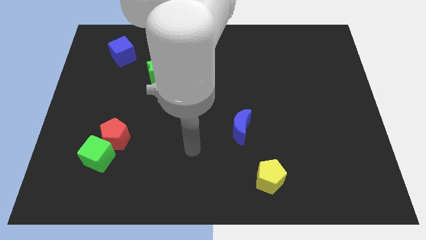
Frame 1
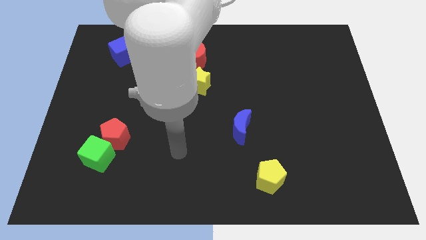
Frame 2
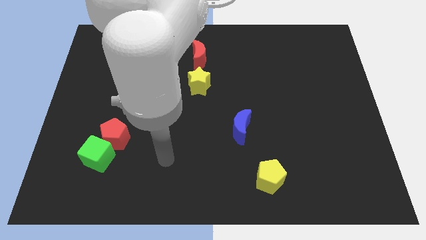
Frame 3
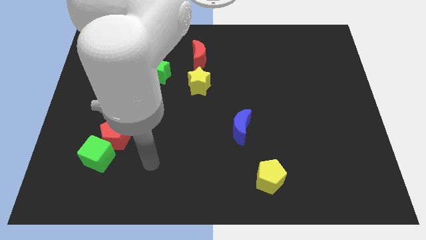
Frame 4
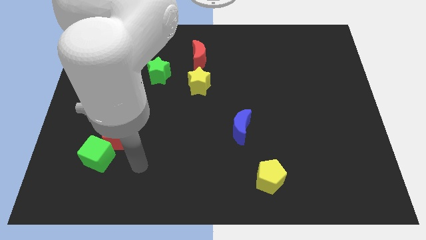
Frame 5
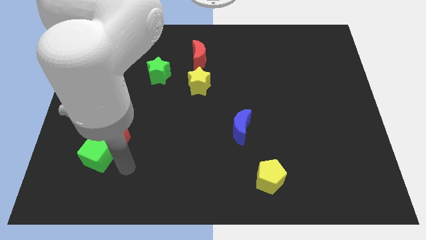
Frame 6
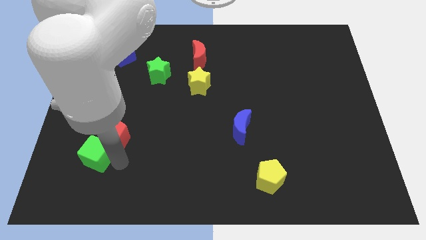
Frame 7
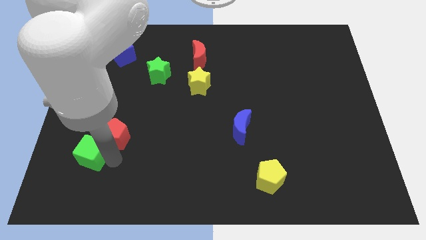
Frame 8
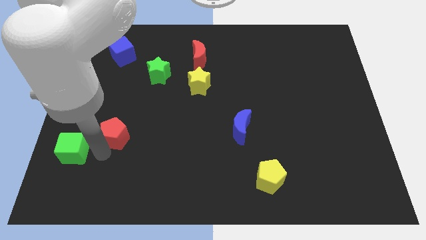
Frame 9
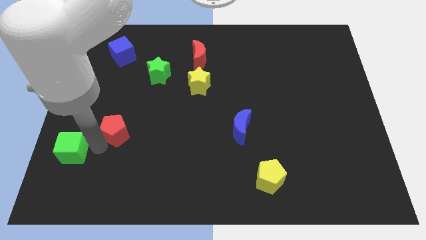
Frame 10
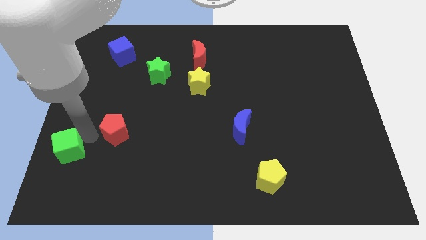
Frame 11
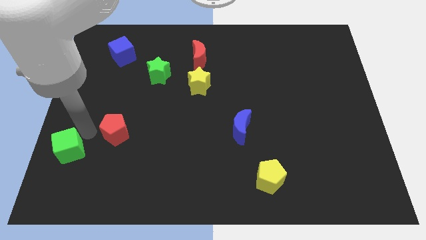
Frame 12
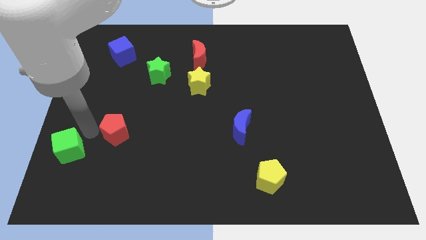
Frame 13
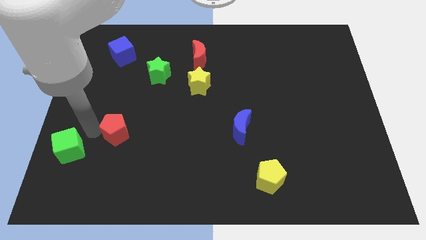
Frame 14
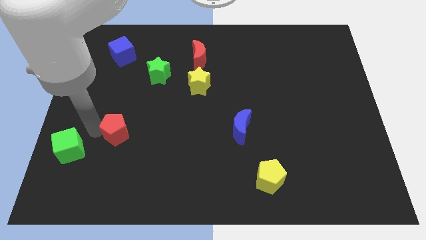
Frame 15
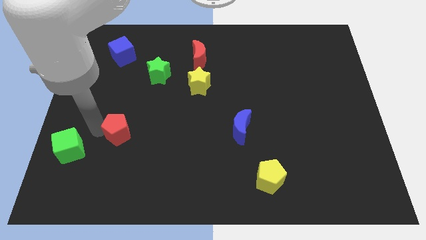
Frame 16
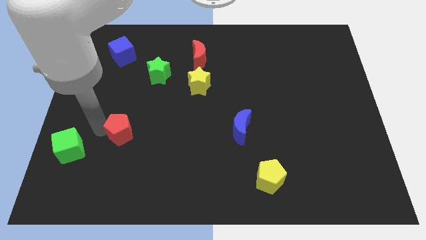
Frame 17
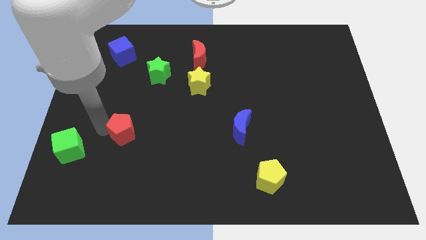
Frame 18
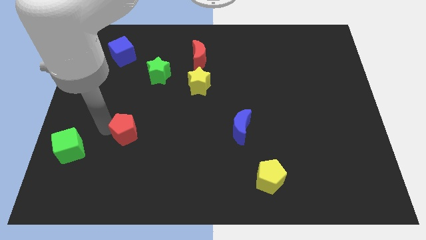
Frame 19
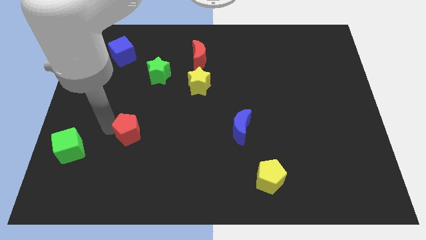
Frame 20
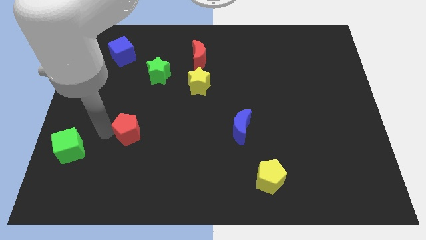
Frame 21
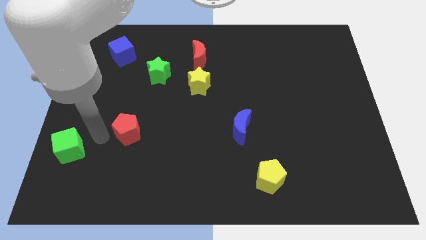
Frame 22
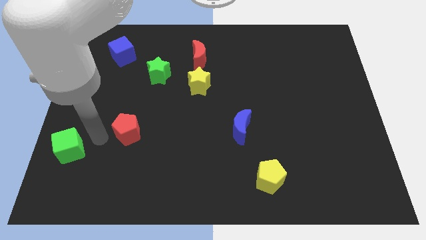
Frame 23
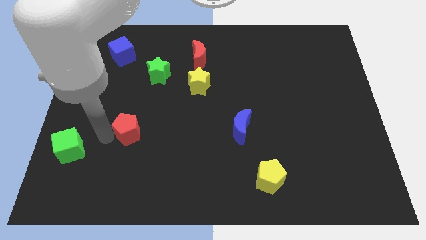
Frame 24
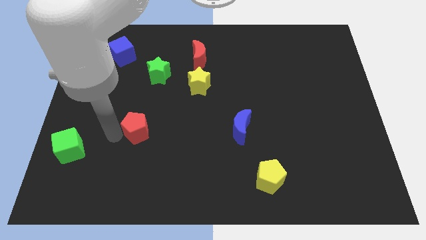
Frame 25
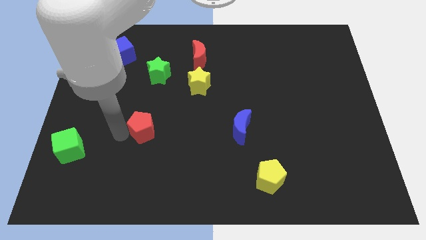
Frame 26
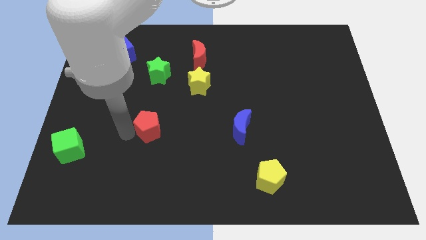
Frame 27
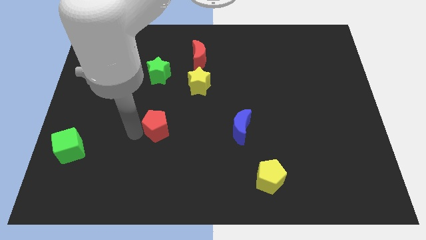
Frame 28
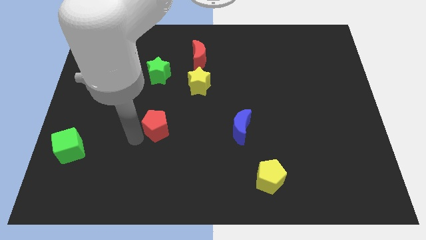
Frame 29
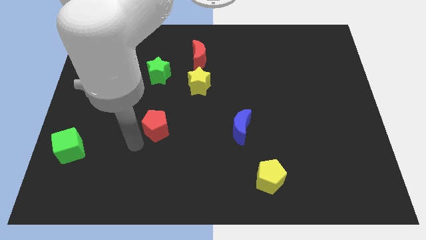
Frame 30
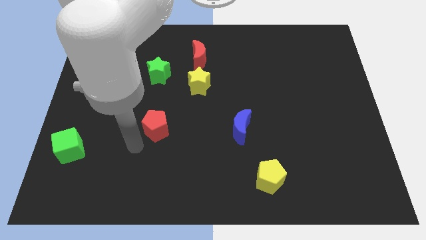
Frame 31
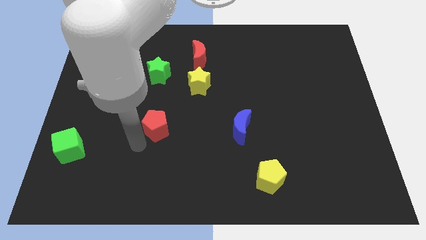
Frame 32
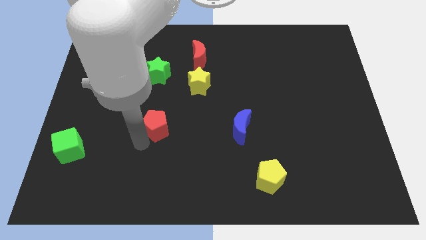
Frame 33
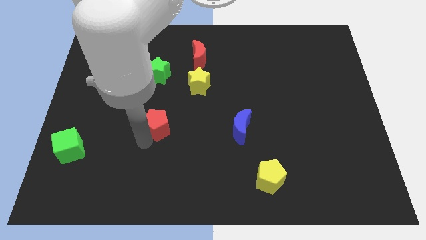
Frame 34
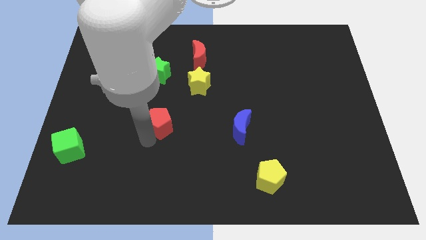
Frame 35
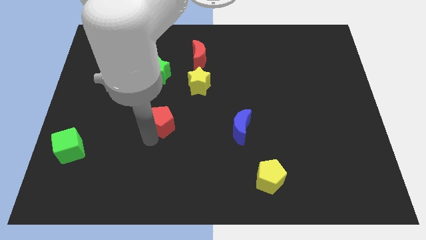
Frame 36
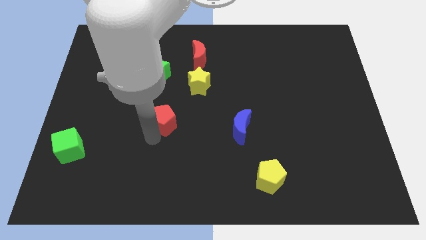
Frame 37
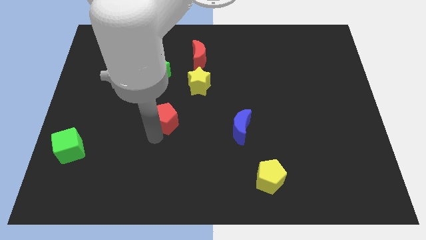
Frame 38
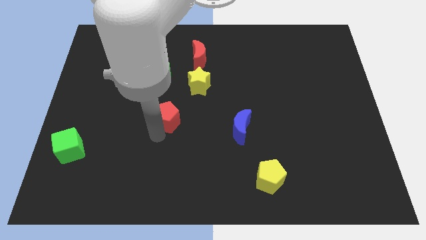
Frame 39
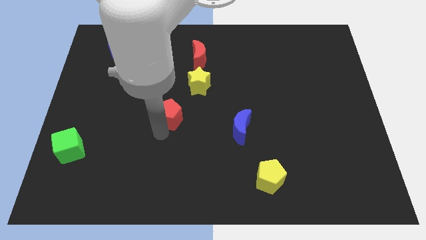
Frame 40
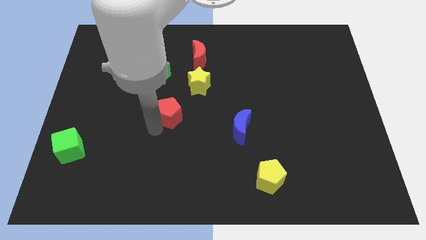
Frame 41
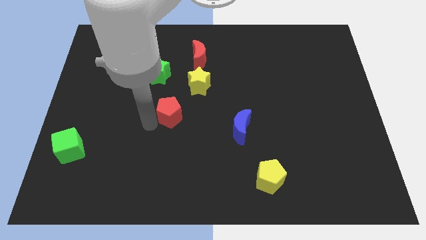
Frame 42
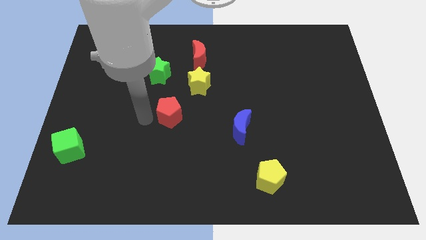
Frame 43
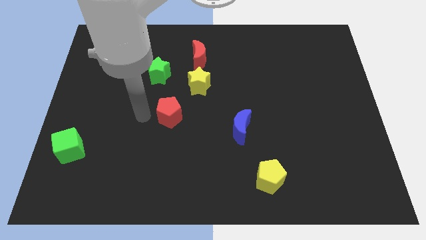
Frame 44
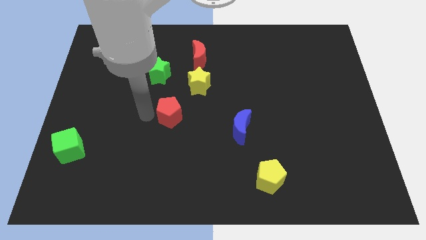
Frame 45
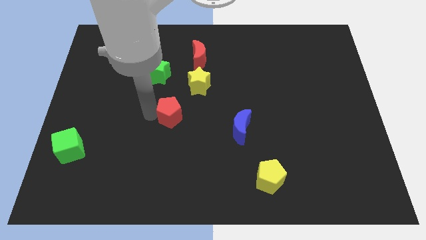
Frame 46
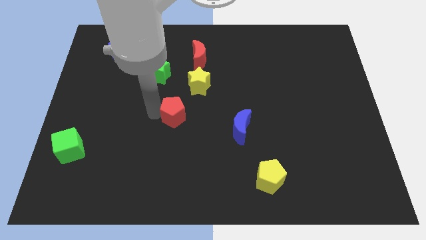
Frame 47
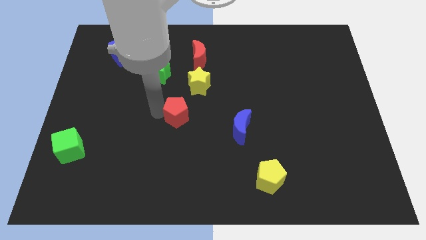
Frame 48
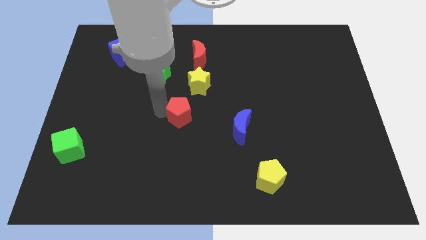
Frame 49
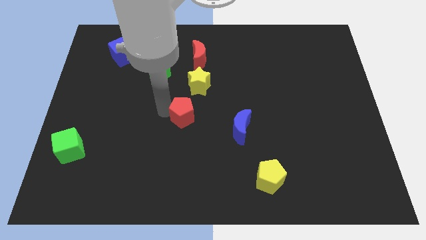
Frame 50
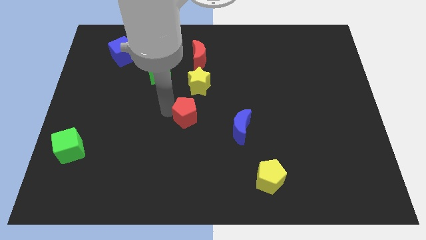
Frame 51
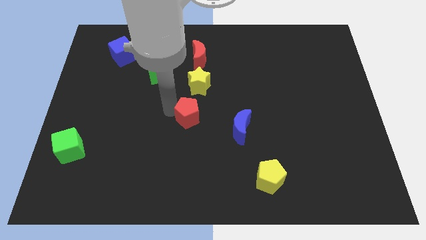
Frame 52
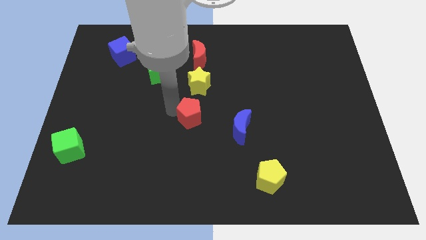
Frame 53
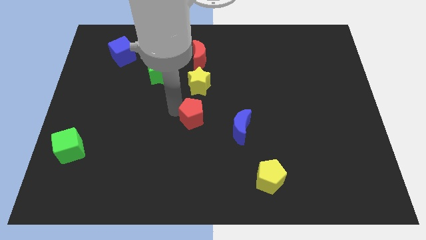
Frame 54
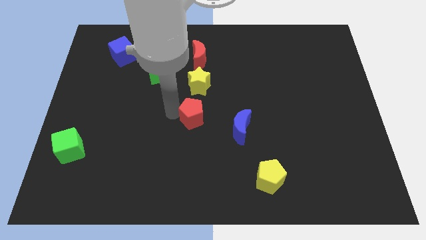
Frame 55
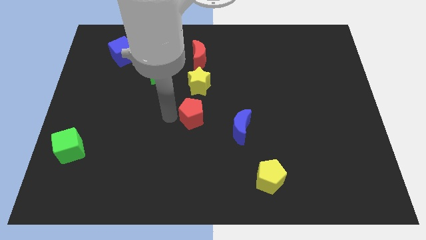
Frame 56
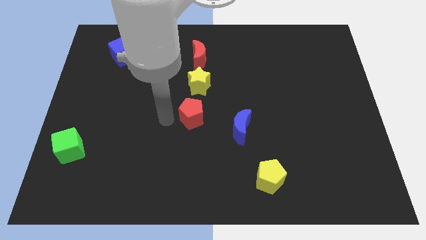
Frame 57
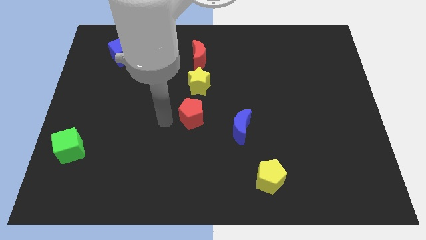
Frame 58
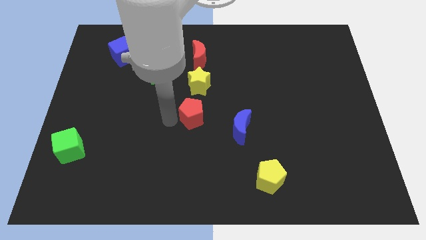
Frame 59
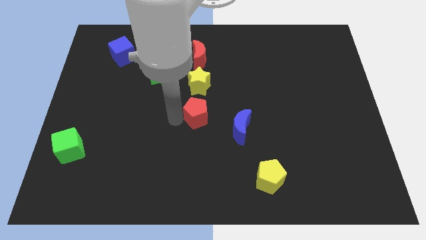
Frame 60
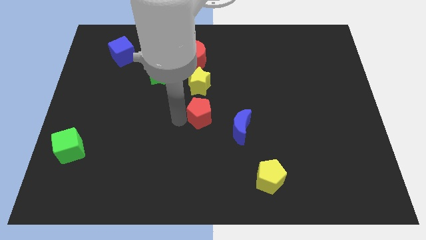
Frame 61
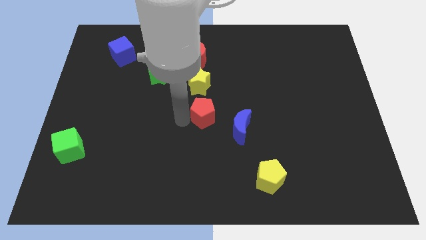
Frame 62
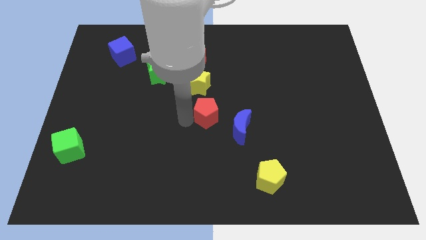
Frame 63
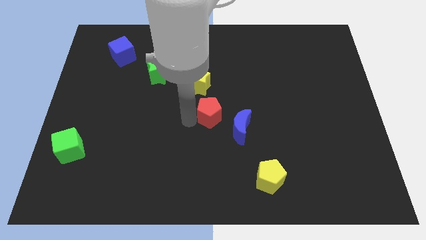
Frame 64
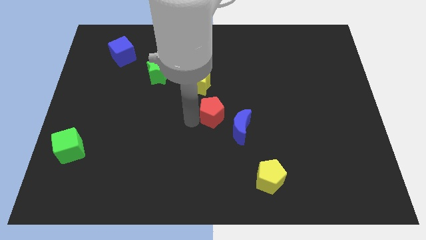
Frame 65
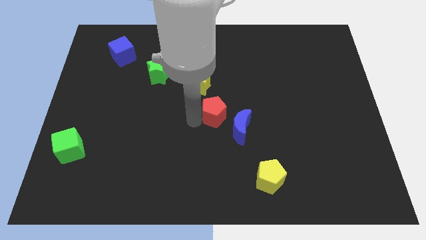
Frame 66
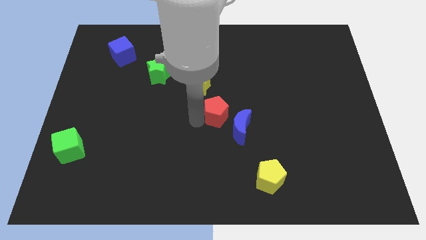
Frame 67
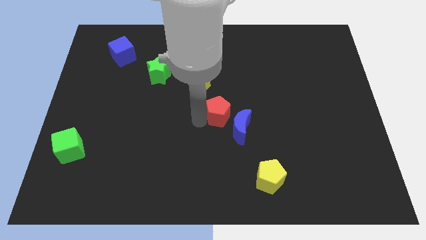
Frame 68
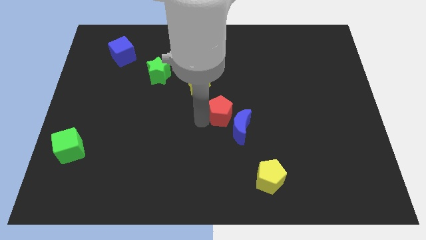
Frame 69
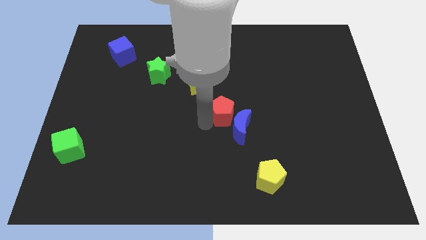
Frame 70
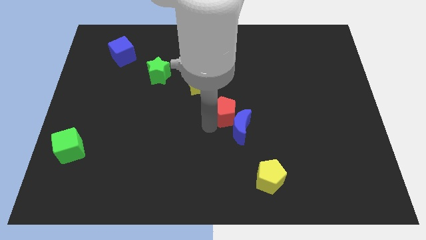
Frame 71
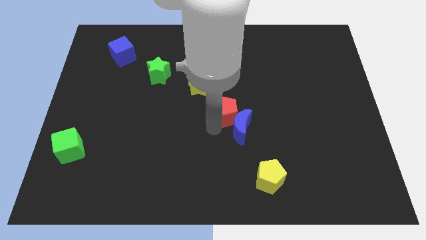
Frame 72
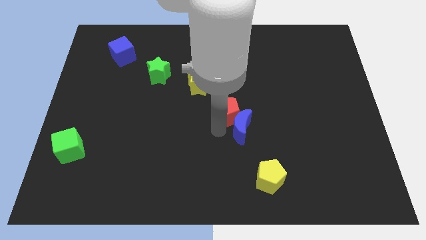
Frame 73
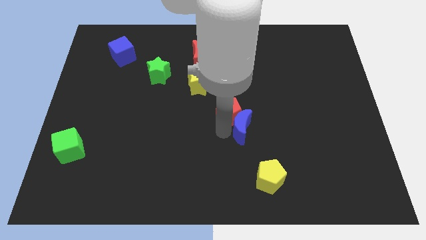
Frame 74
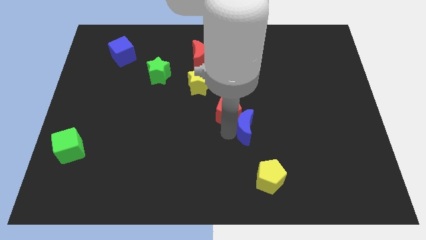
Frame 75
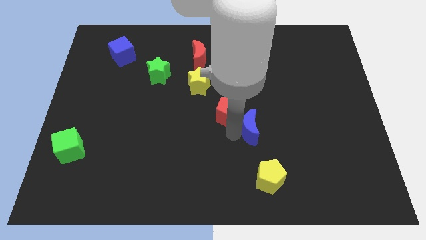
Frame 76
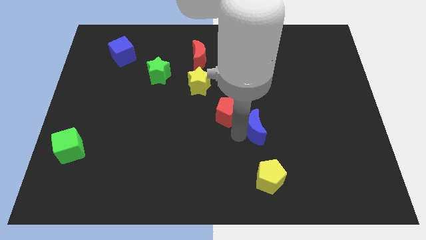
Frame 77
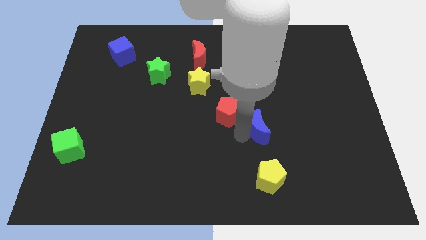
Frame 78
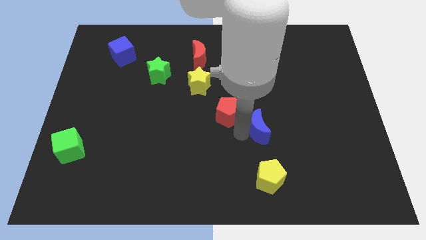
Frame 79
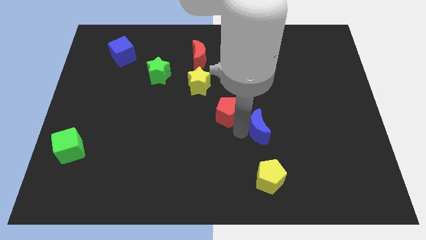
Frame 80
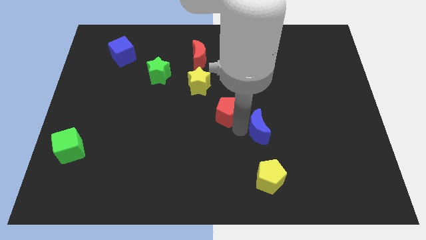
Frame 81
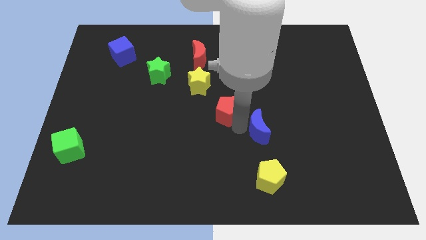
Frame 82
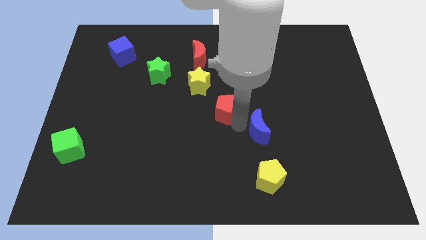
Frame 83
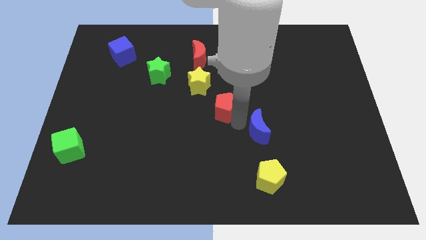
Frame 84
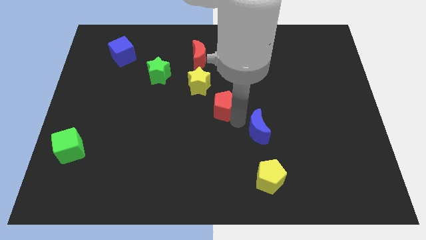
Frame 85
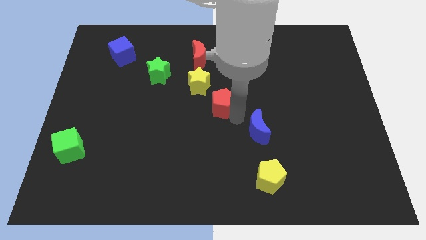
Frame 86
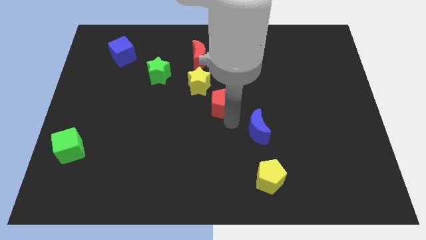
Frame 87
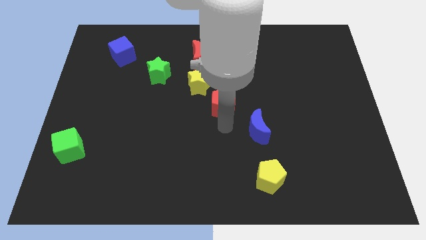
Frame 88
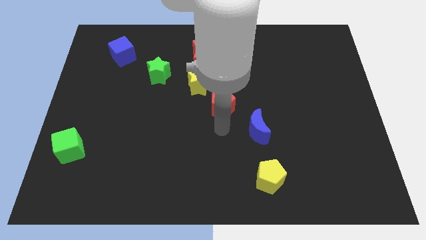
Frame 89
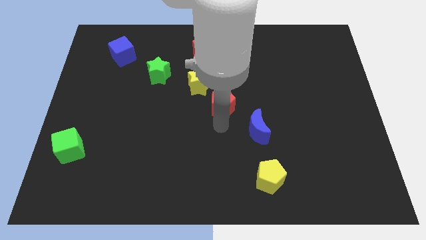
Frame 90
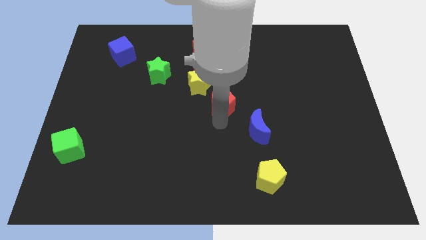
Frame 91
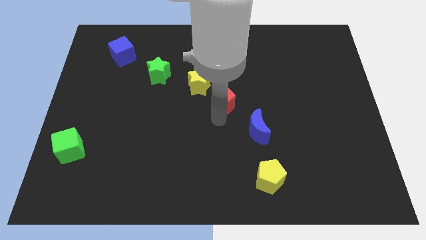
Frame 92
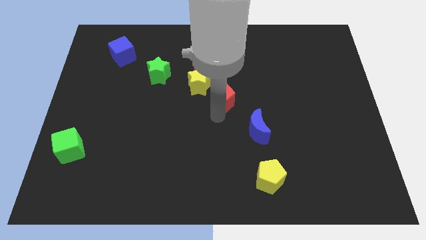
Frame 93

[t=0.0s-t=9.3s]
slide the red pentagon up and to the right diagonally
